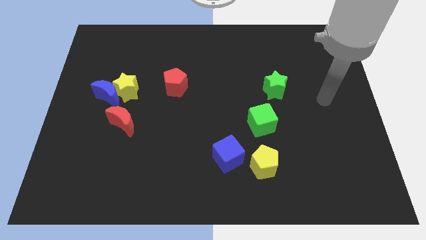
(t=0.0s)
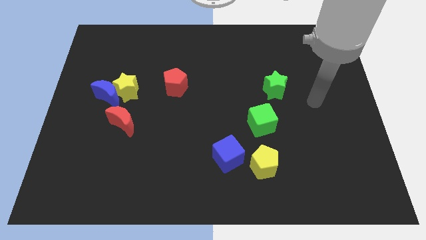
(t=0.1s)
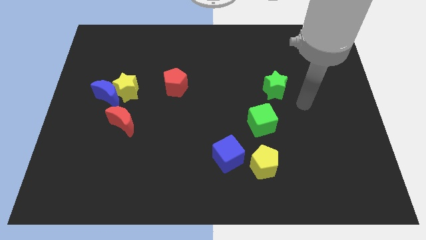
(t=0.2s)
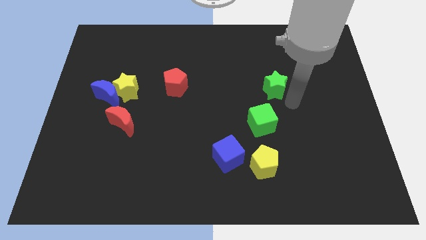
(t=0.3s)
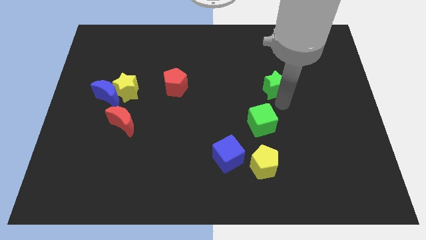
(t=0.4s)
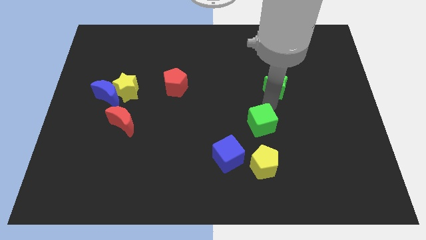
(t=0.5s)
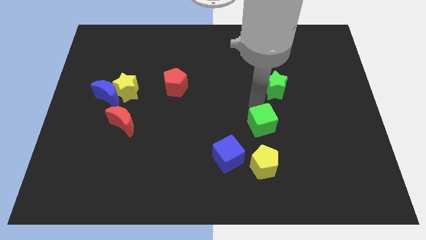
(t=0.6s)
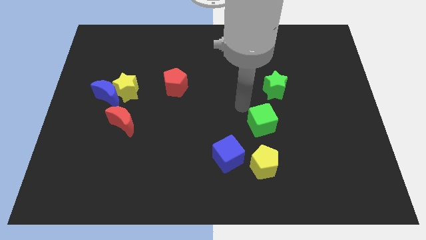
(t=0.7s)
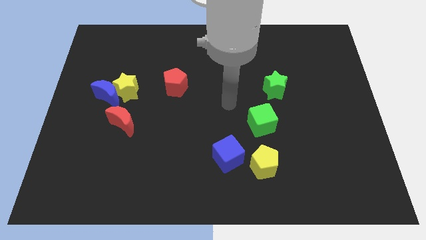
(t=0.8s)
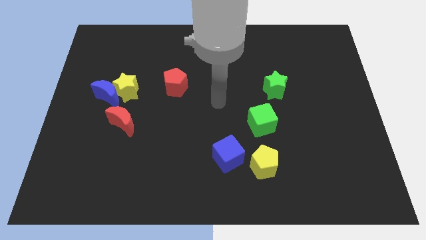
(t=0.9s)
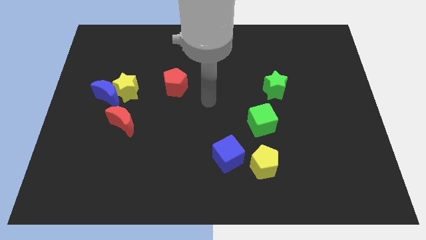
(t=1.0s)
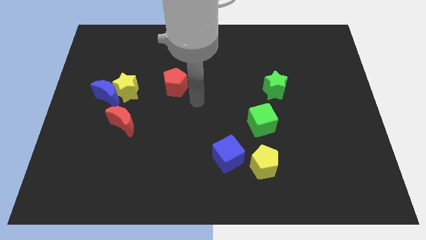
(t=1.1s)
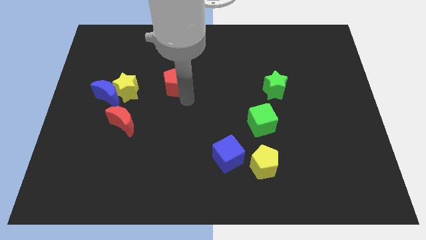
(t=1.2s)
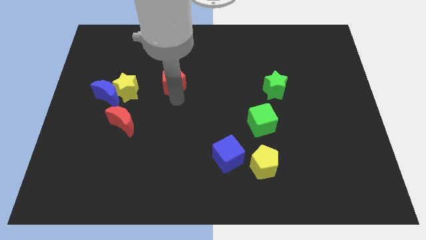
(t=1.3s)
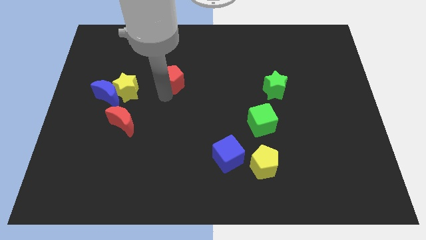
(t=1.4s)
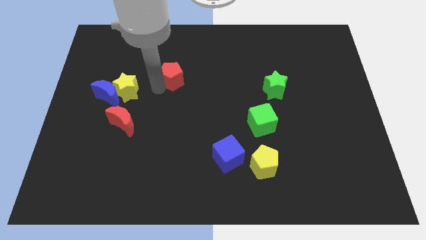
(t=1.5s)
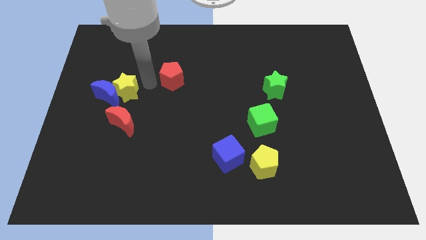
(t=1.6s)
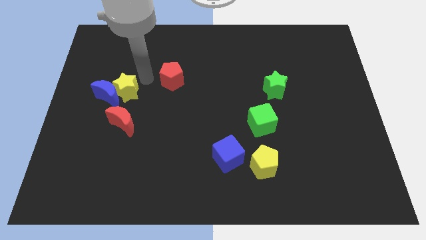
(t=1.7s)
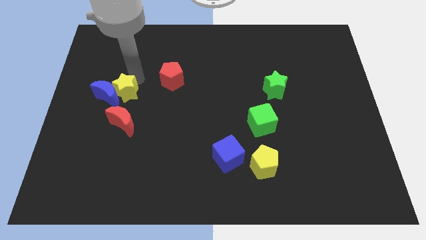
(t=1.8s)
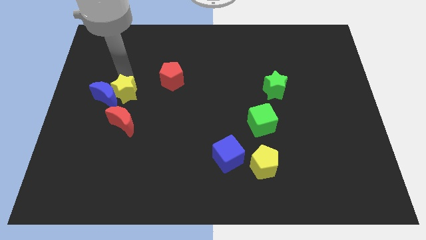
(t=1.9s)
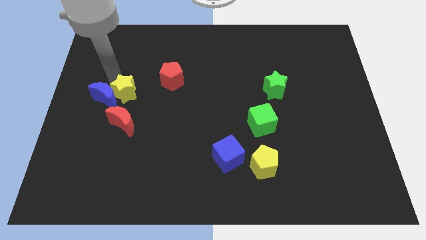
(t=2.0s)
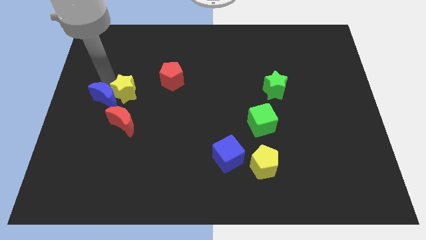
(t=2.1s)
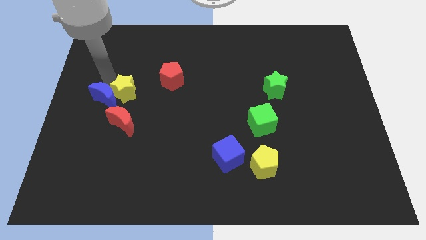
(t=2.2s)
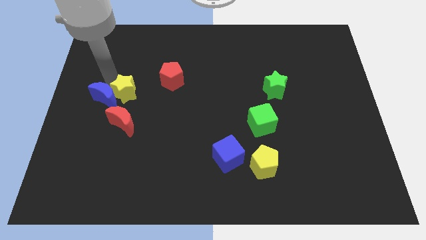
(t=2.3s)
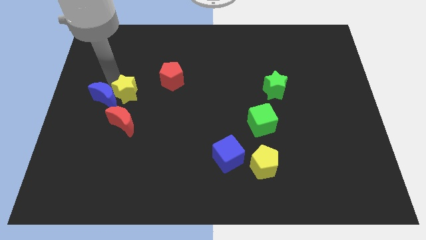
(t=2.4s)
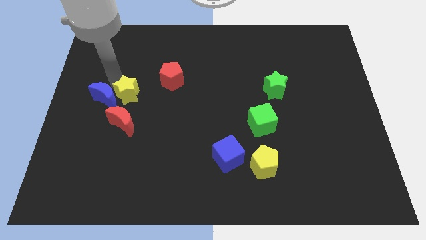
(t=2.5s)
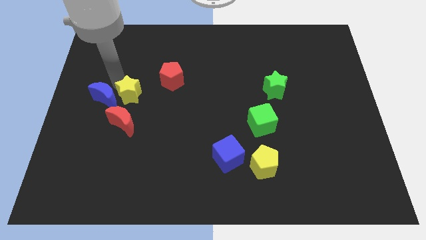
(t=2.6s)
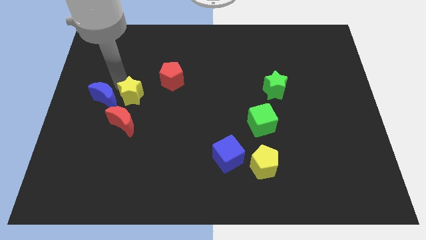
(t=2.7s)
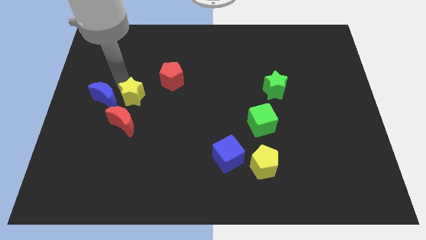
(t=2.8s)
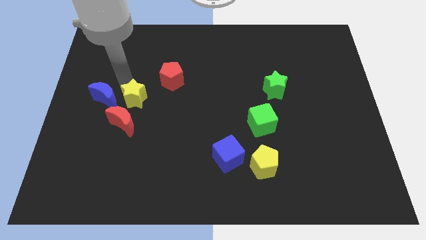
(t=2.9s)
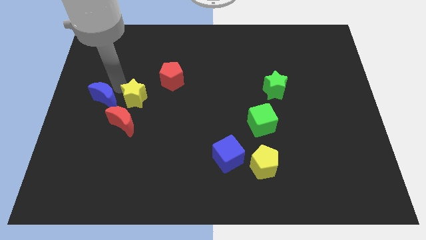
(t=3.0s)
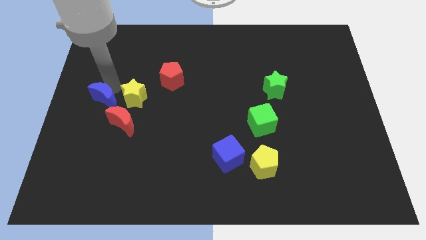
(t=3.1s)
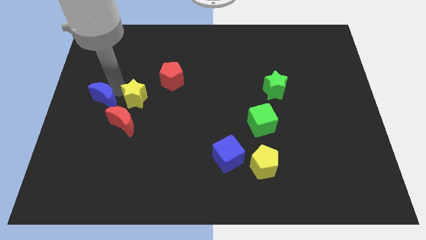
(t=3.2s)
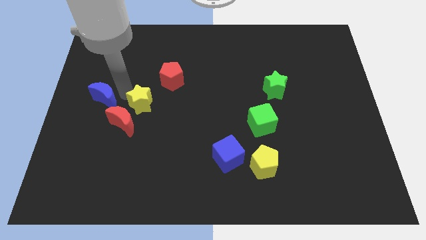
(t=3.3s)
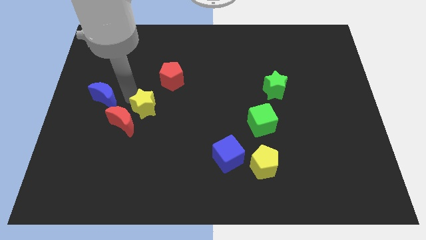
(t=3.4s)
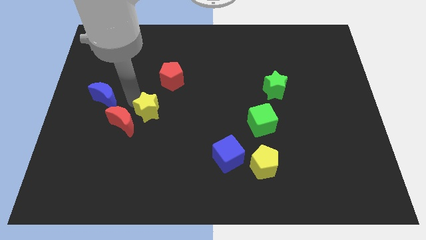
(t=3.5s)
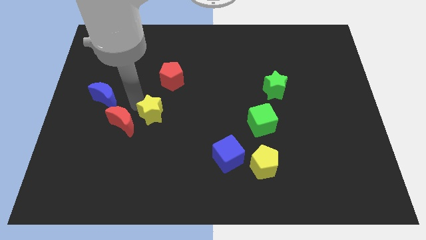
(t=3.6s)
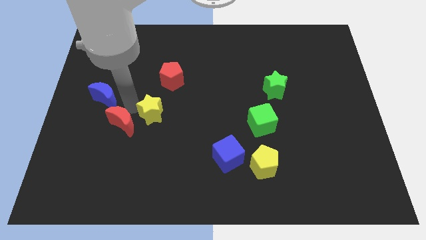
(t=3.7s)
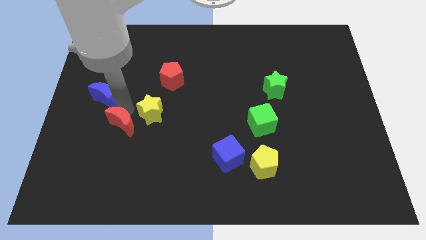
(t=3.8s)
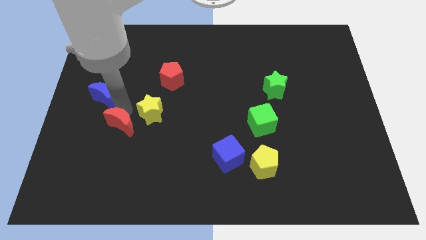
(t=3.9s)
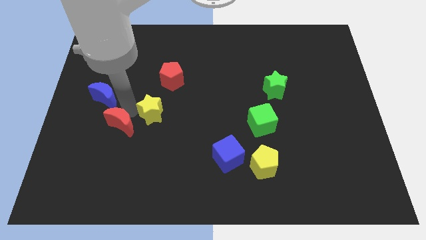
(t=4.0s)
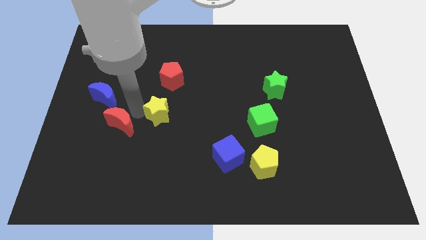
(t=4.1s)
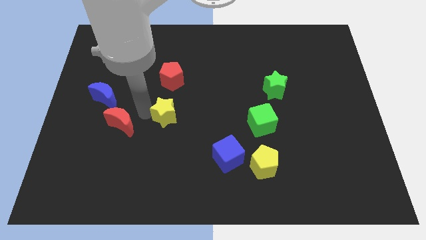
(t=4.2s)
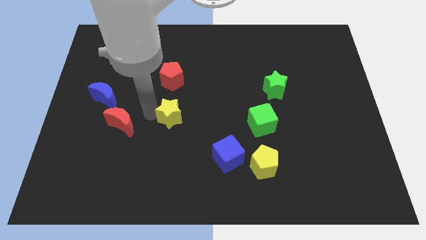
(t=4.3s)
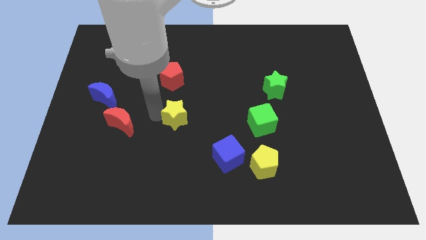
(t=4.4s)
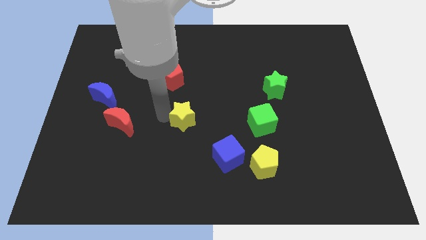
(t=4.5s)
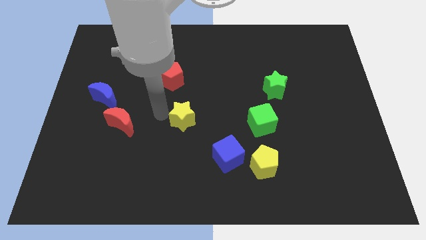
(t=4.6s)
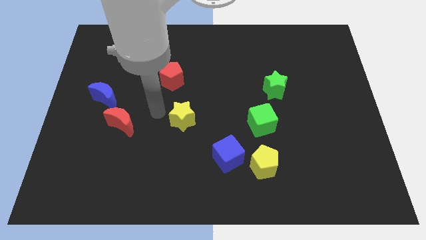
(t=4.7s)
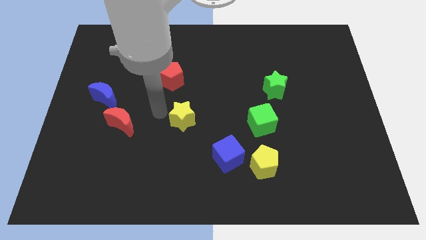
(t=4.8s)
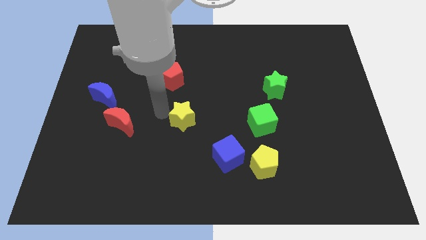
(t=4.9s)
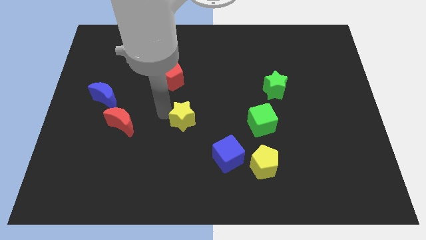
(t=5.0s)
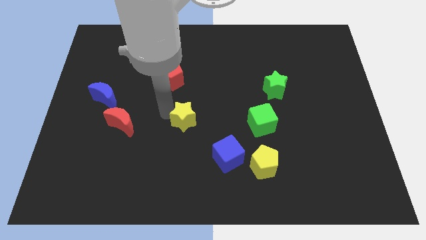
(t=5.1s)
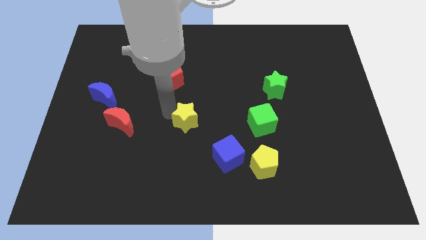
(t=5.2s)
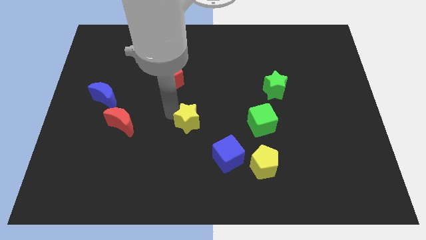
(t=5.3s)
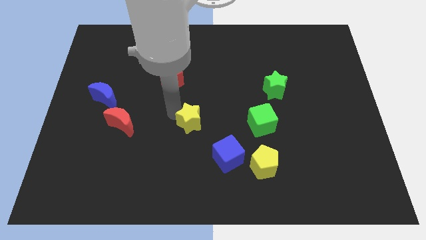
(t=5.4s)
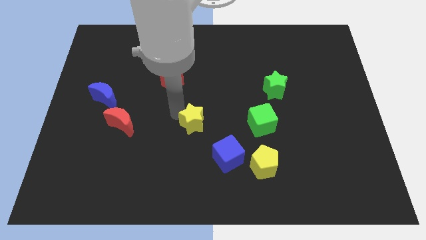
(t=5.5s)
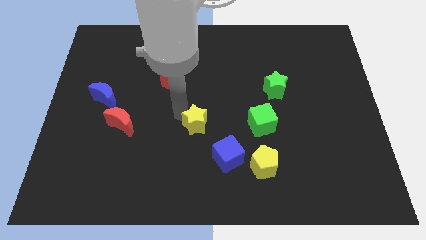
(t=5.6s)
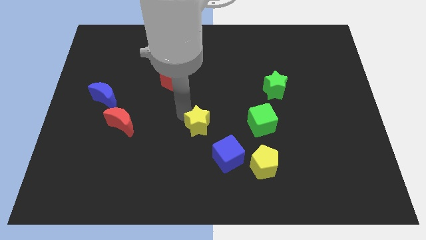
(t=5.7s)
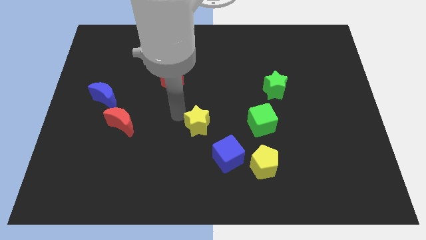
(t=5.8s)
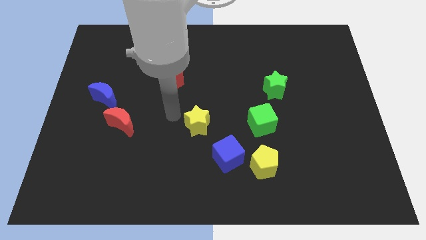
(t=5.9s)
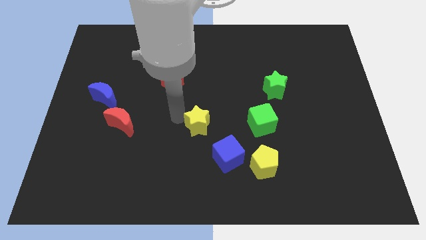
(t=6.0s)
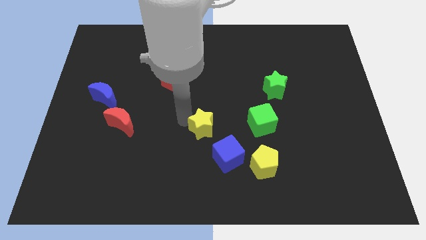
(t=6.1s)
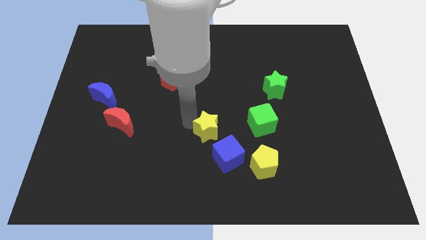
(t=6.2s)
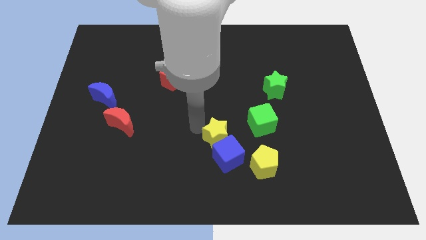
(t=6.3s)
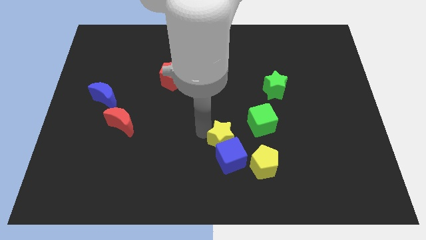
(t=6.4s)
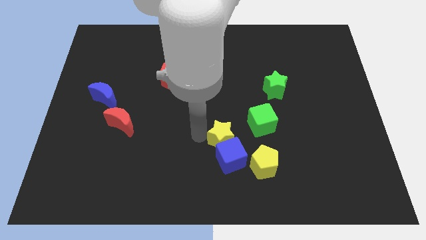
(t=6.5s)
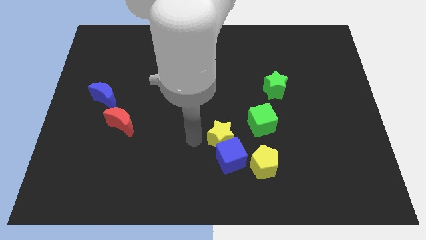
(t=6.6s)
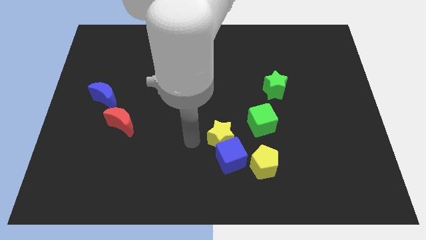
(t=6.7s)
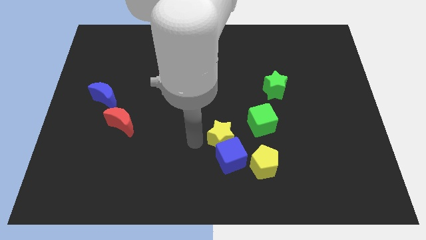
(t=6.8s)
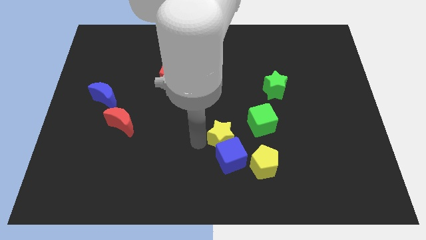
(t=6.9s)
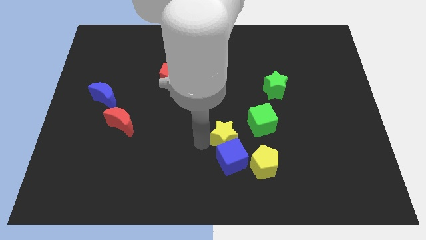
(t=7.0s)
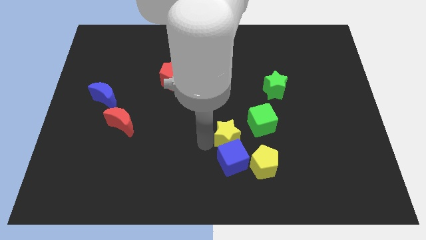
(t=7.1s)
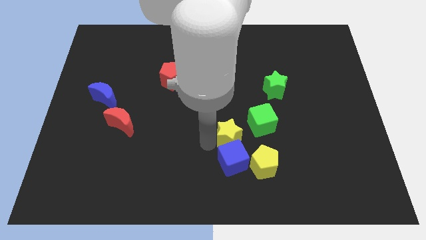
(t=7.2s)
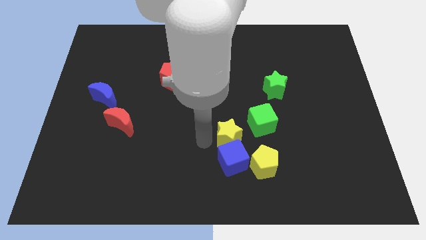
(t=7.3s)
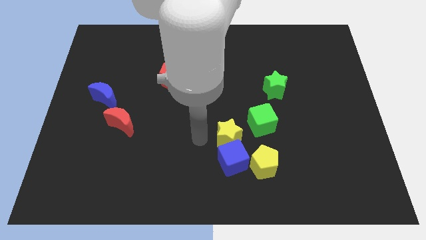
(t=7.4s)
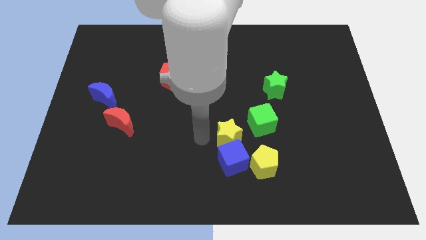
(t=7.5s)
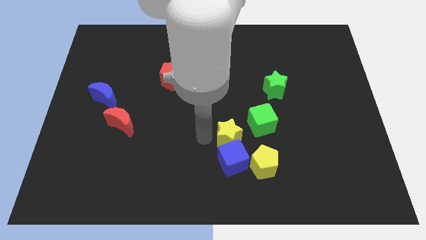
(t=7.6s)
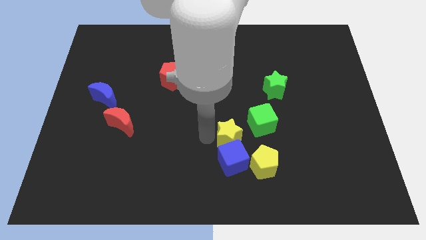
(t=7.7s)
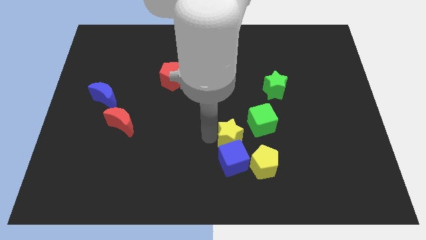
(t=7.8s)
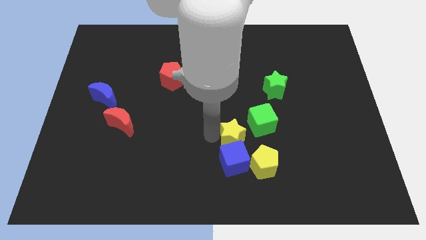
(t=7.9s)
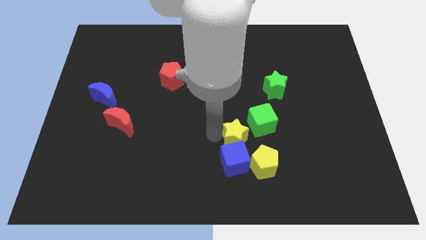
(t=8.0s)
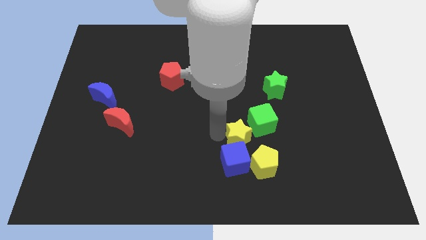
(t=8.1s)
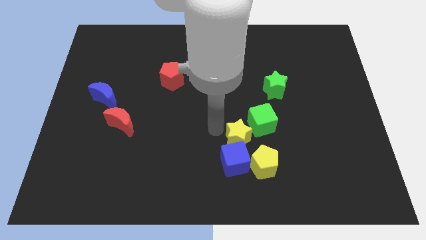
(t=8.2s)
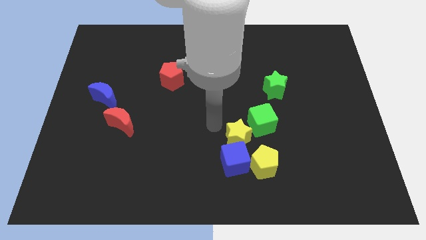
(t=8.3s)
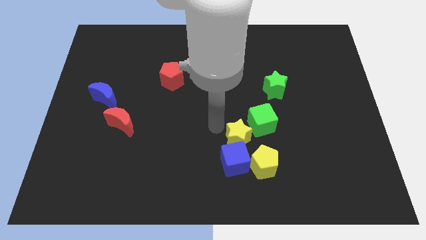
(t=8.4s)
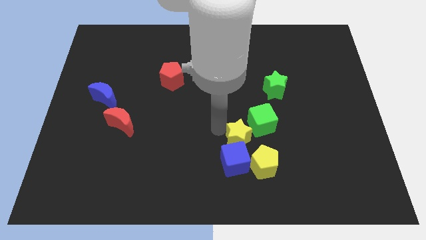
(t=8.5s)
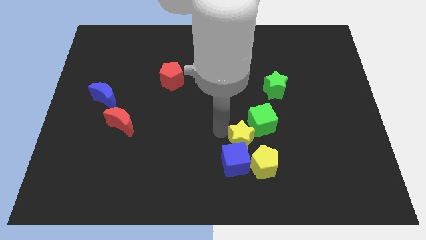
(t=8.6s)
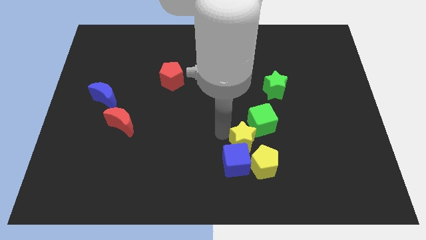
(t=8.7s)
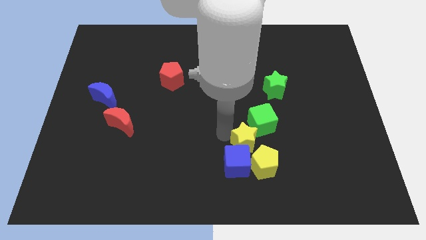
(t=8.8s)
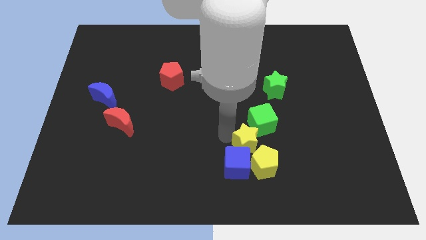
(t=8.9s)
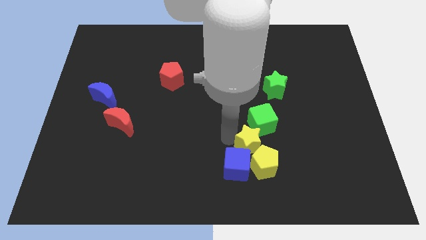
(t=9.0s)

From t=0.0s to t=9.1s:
move the yellow star close to the yellow pentagon
